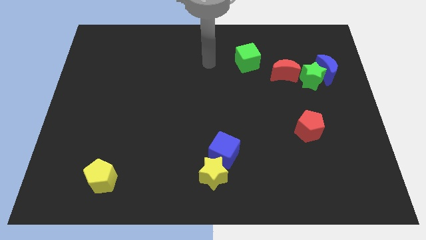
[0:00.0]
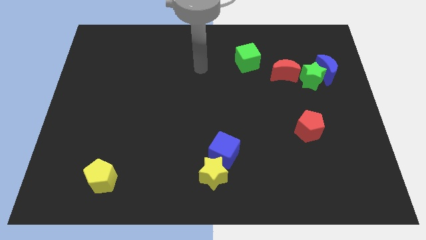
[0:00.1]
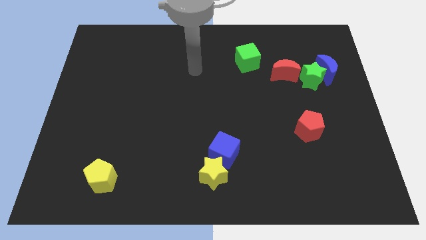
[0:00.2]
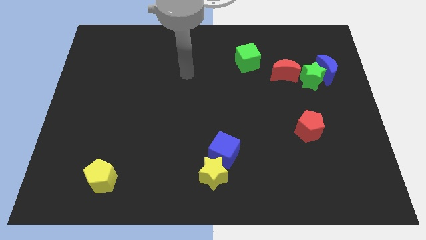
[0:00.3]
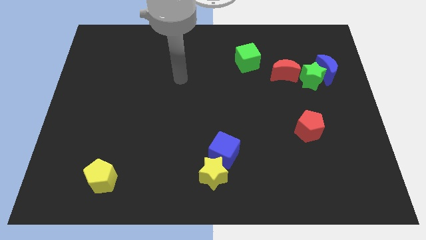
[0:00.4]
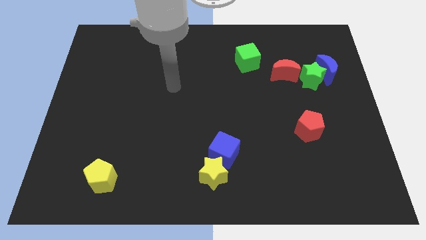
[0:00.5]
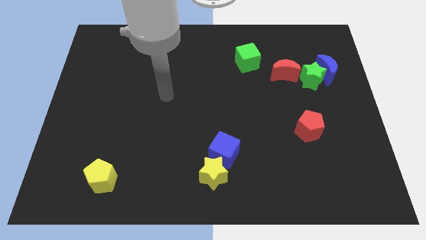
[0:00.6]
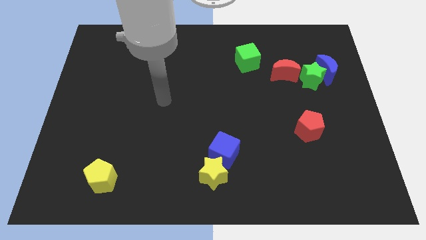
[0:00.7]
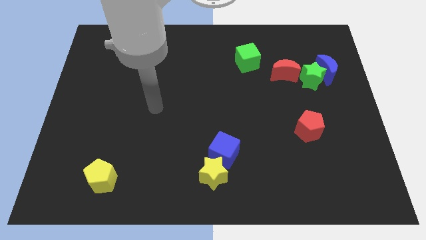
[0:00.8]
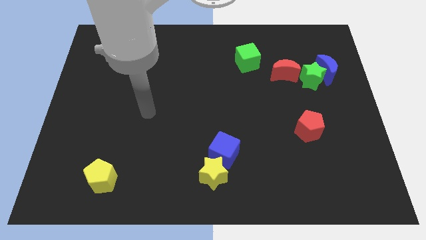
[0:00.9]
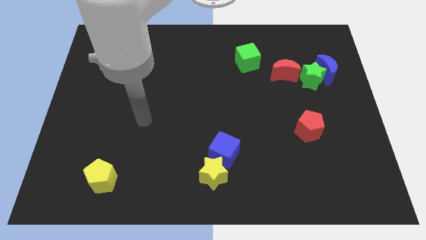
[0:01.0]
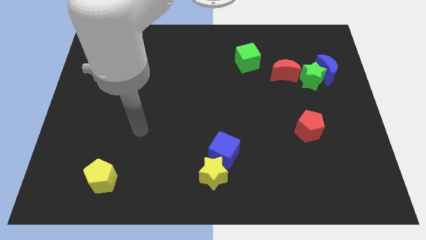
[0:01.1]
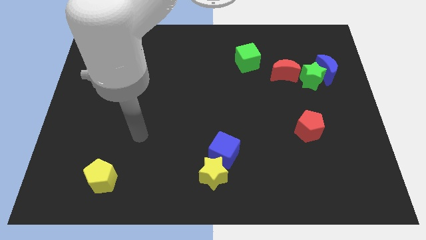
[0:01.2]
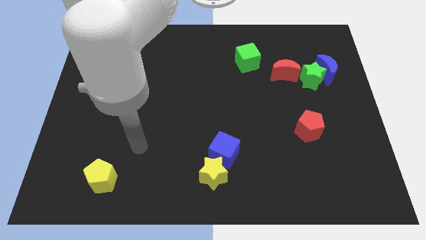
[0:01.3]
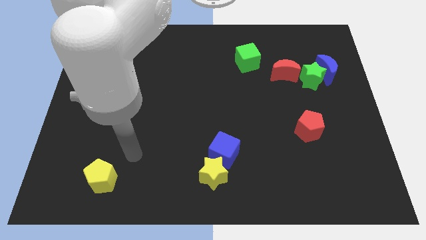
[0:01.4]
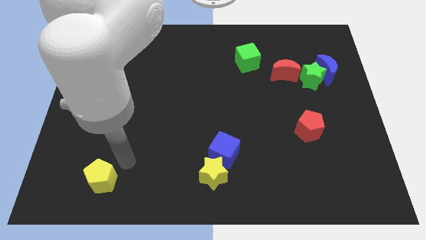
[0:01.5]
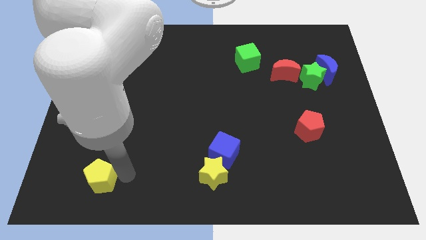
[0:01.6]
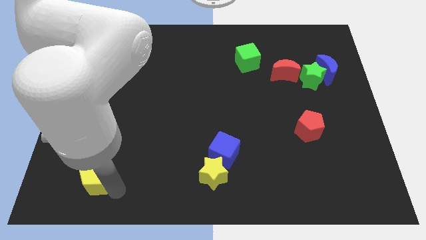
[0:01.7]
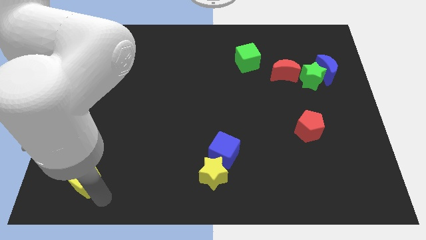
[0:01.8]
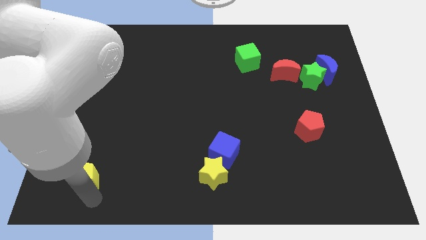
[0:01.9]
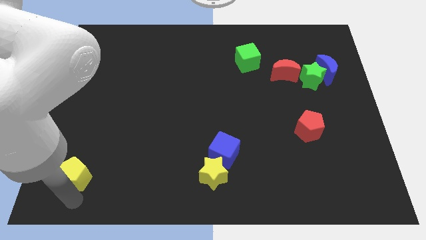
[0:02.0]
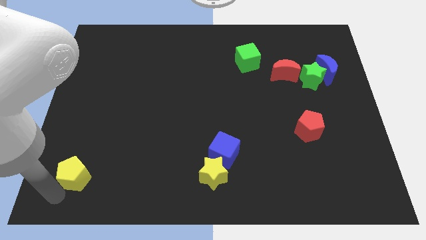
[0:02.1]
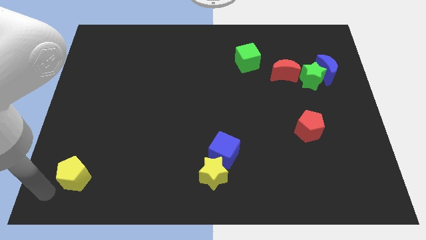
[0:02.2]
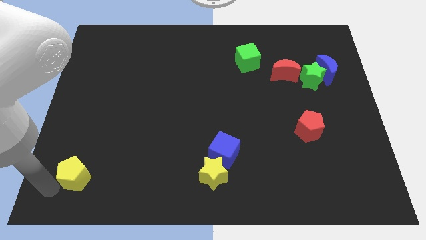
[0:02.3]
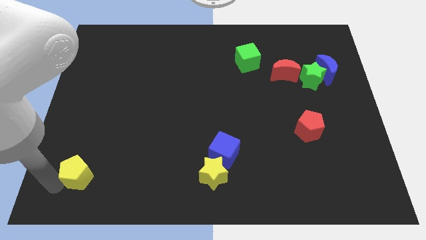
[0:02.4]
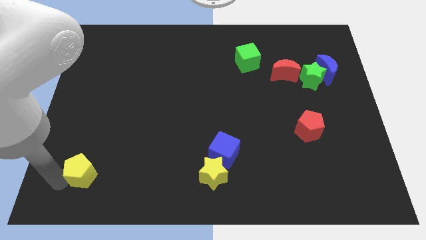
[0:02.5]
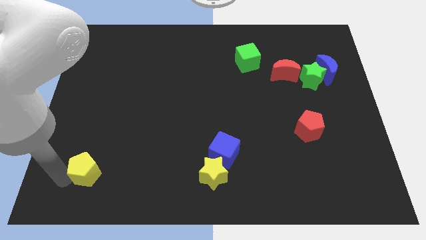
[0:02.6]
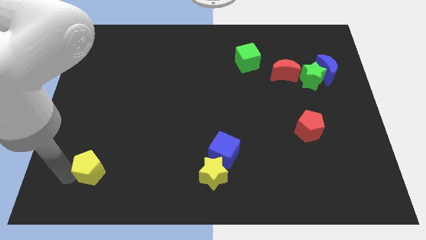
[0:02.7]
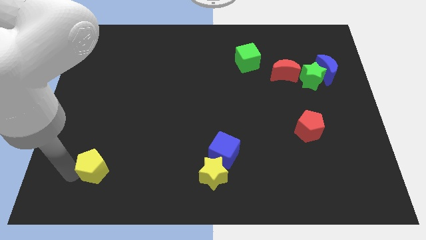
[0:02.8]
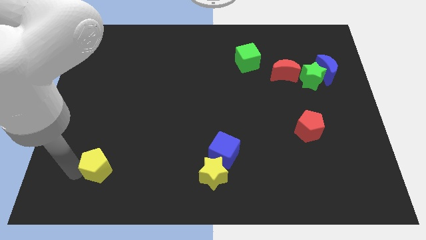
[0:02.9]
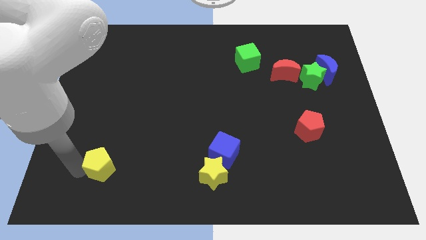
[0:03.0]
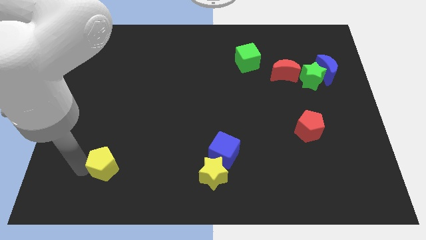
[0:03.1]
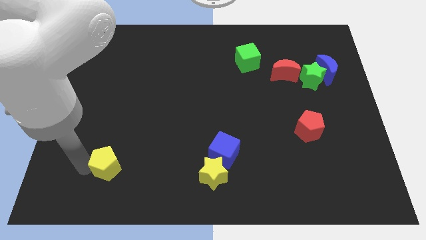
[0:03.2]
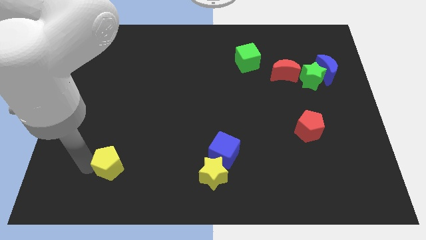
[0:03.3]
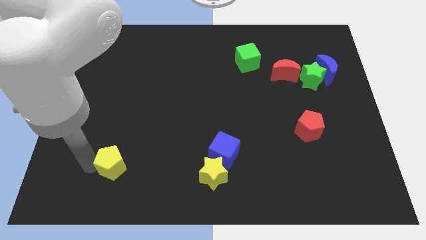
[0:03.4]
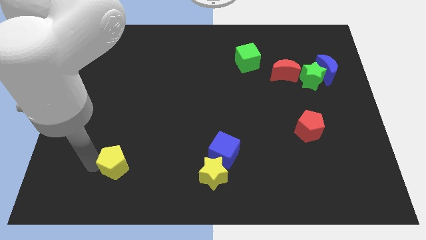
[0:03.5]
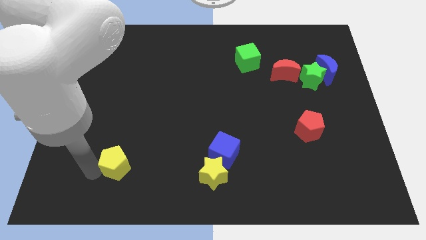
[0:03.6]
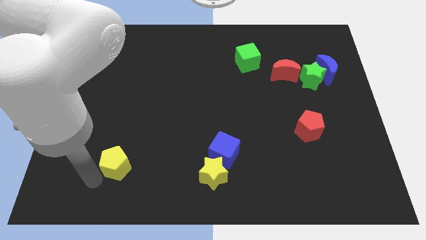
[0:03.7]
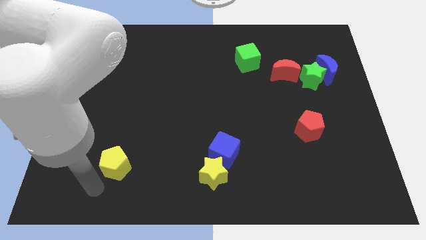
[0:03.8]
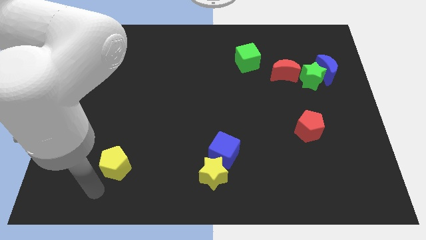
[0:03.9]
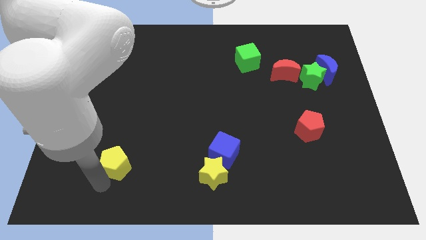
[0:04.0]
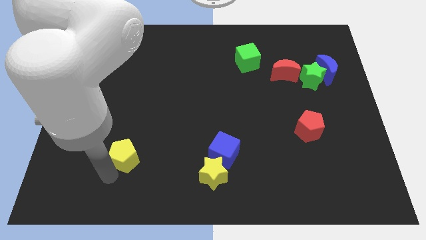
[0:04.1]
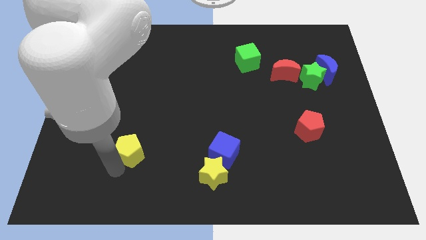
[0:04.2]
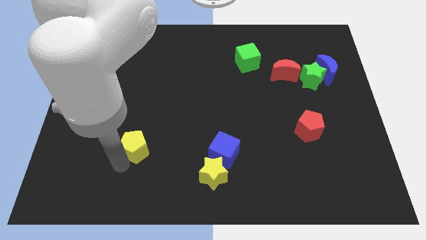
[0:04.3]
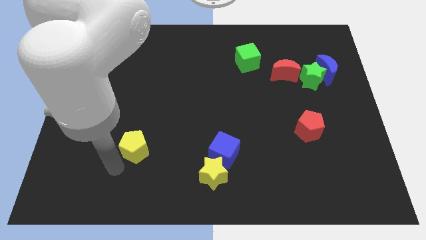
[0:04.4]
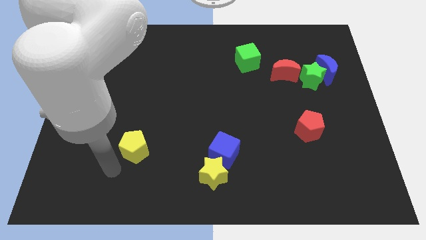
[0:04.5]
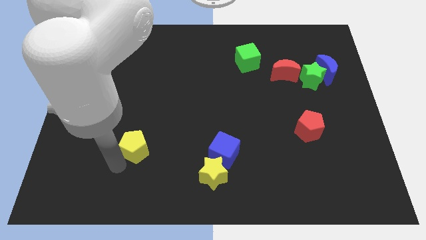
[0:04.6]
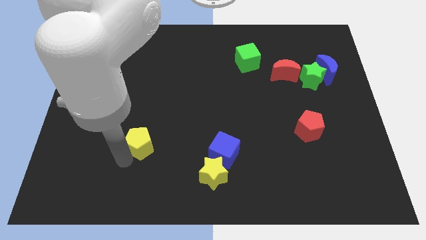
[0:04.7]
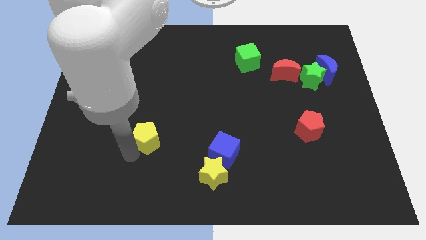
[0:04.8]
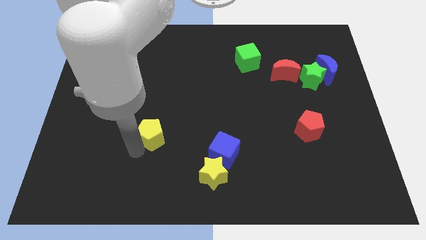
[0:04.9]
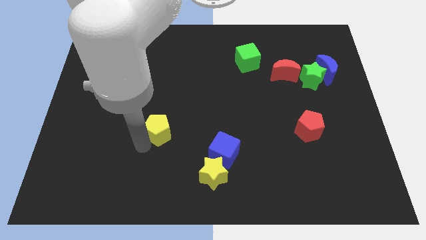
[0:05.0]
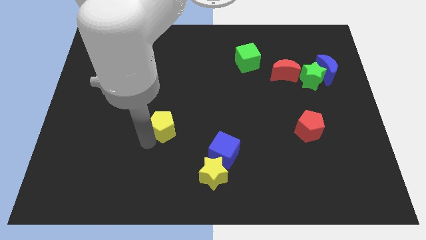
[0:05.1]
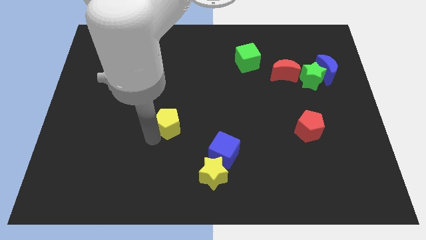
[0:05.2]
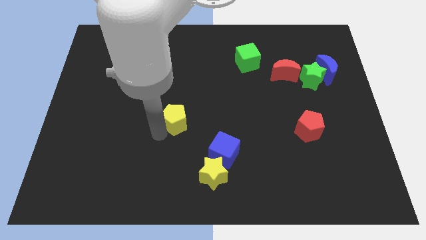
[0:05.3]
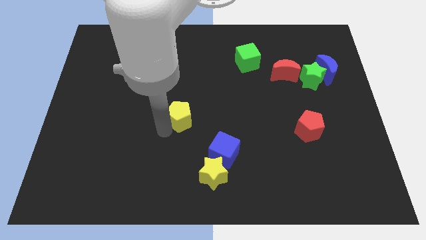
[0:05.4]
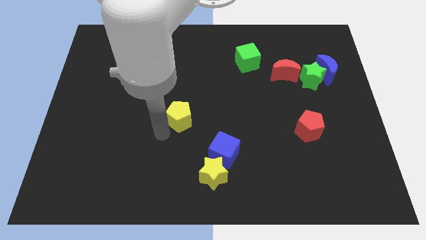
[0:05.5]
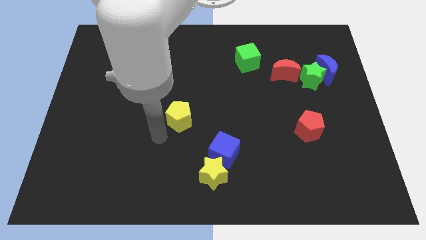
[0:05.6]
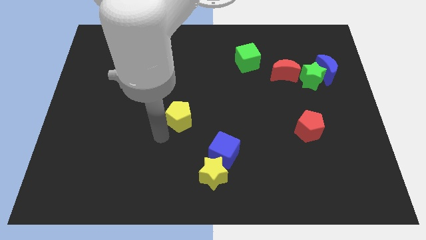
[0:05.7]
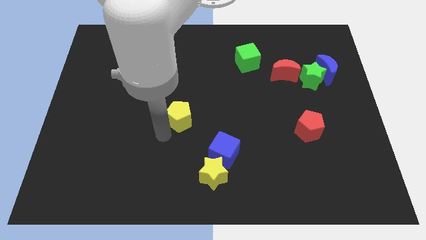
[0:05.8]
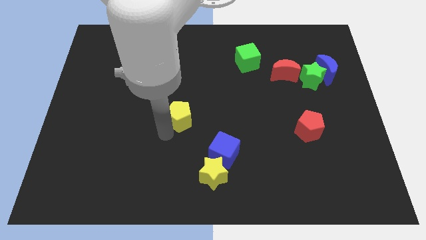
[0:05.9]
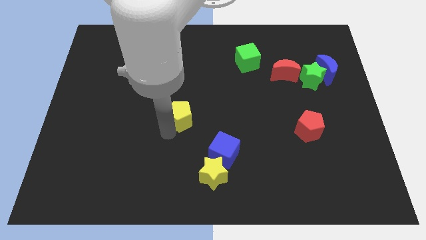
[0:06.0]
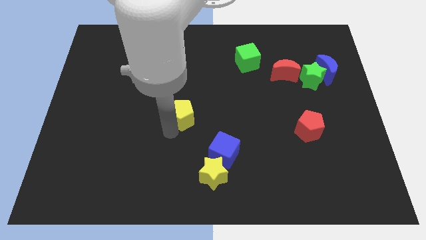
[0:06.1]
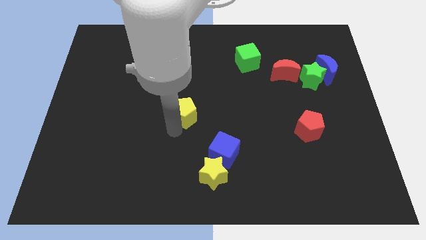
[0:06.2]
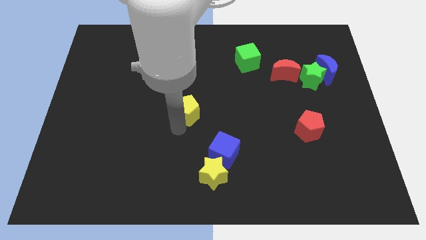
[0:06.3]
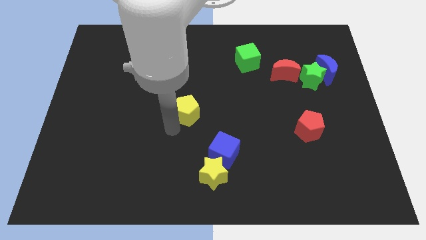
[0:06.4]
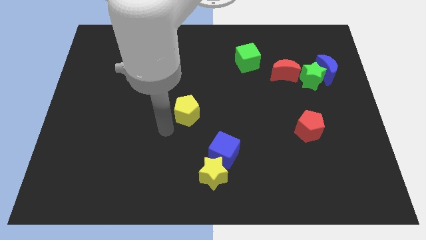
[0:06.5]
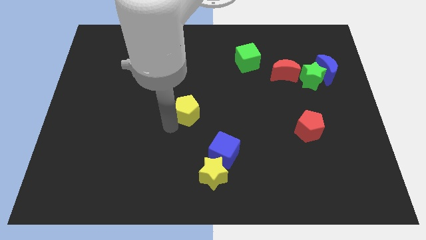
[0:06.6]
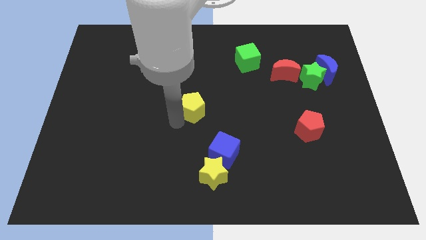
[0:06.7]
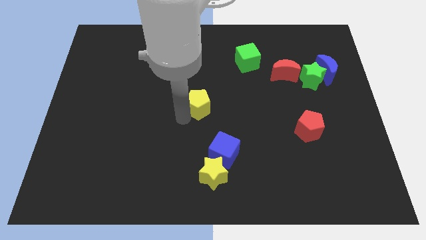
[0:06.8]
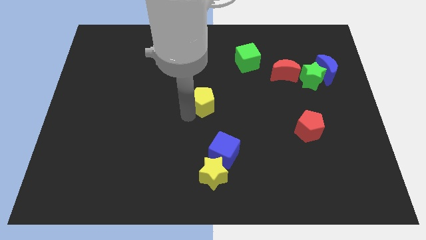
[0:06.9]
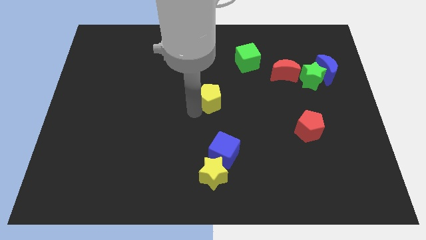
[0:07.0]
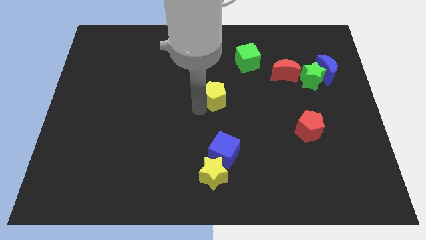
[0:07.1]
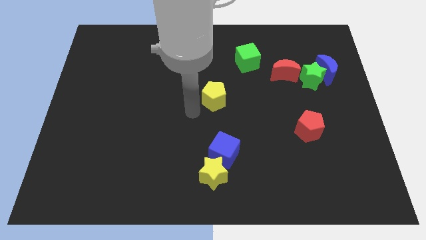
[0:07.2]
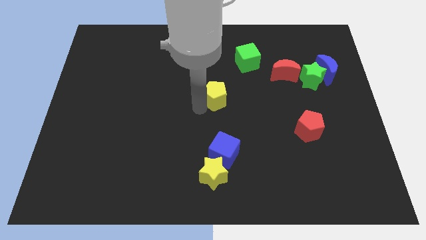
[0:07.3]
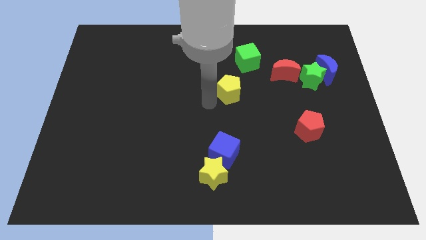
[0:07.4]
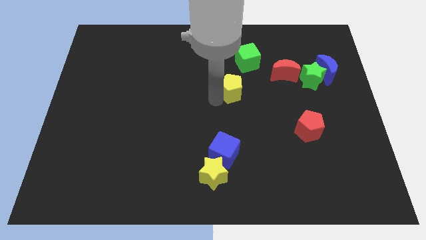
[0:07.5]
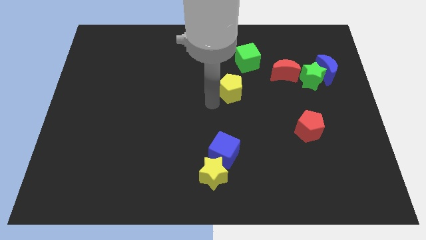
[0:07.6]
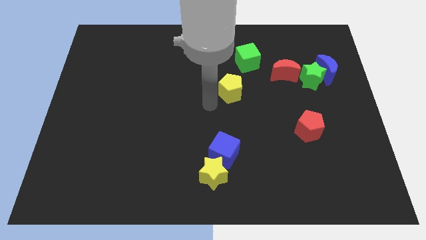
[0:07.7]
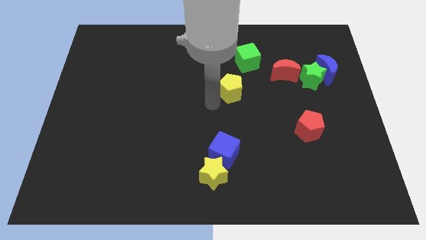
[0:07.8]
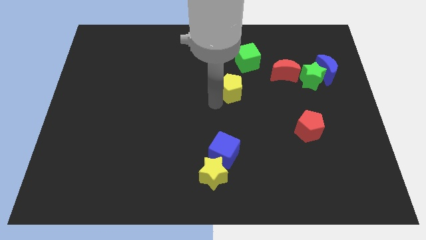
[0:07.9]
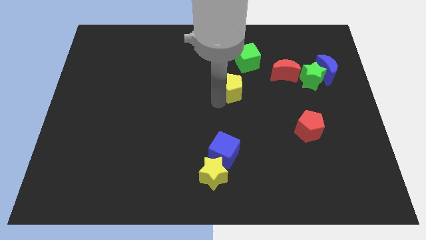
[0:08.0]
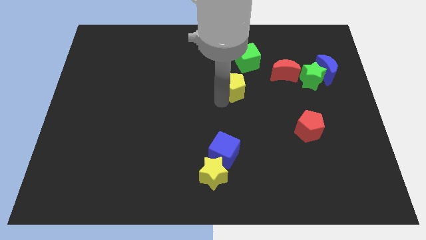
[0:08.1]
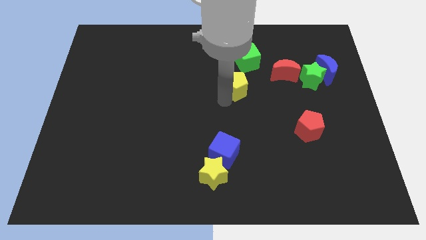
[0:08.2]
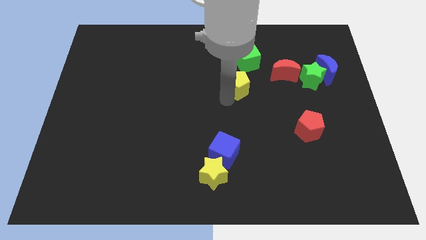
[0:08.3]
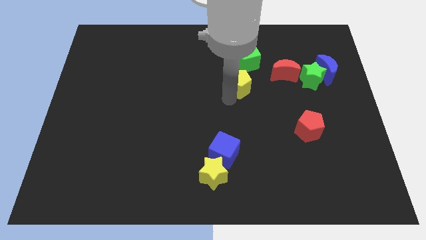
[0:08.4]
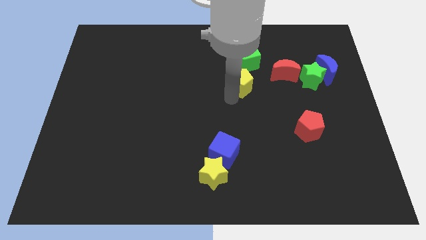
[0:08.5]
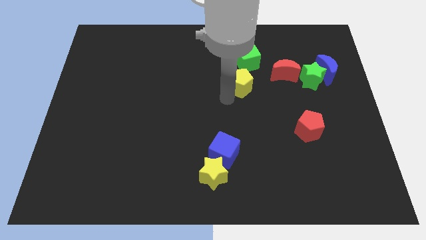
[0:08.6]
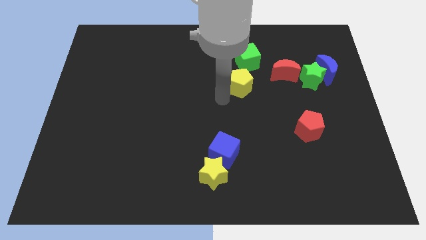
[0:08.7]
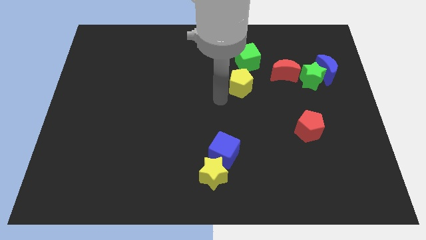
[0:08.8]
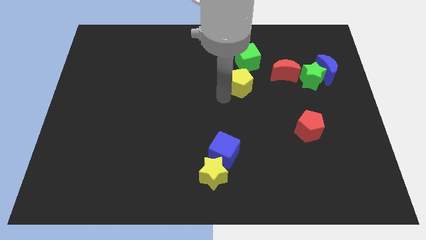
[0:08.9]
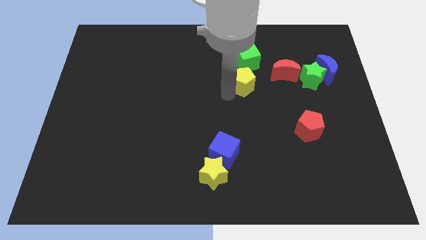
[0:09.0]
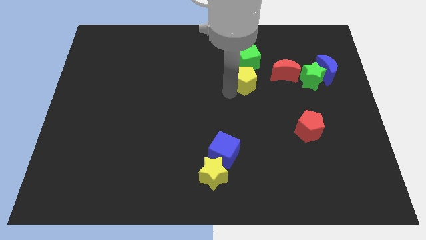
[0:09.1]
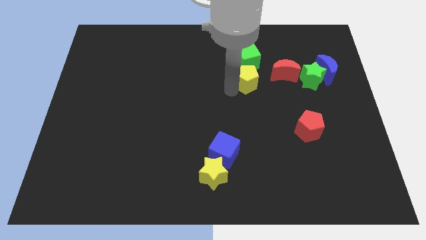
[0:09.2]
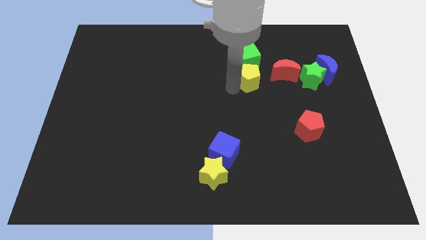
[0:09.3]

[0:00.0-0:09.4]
move the yellow pentagon to the bottom right of the green cube
